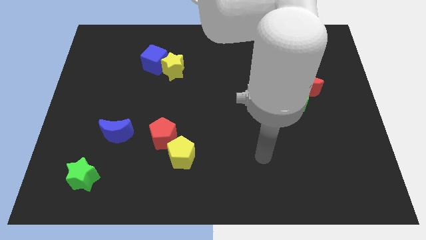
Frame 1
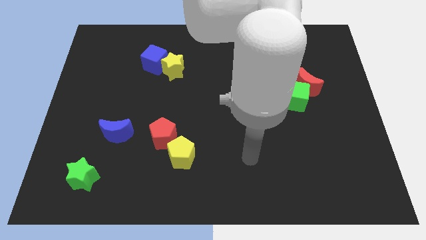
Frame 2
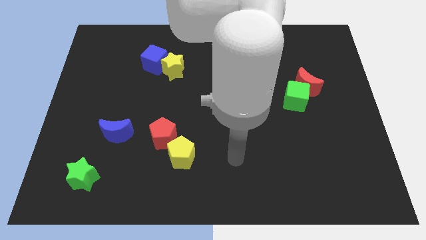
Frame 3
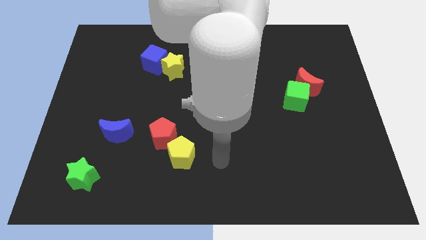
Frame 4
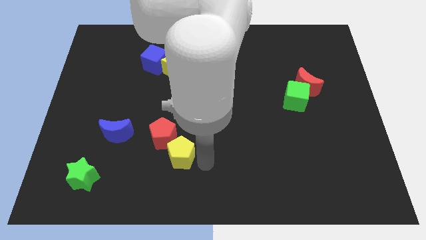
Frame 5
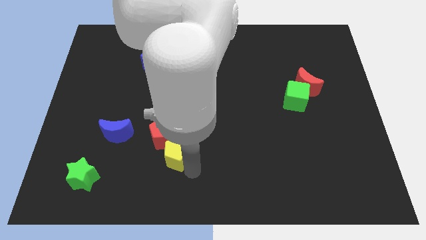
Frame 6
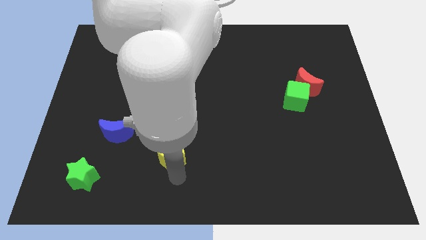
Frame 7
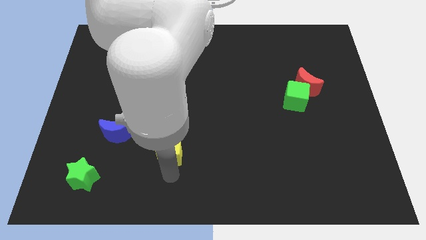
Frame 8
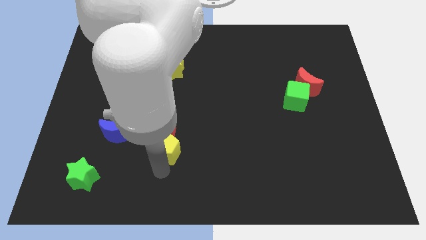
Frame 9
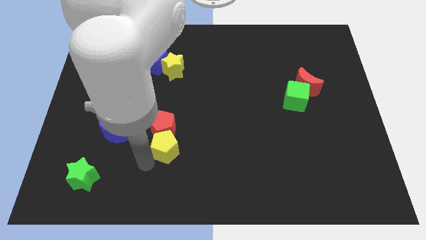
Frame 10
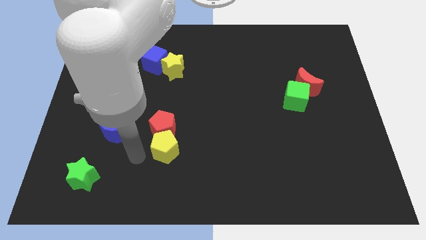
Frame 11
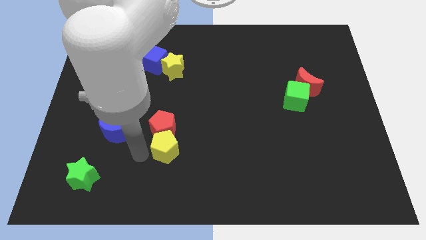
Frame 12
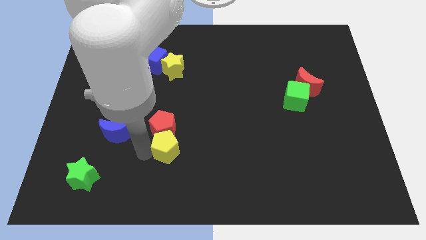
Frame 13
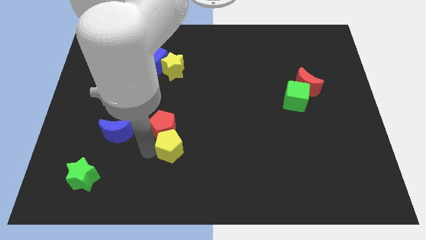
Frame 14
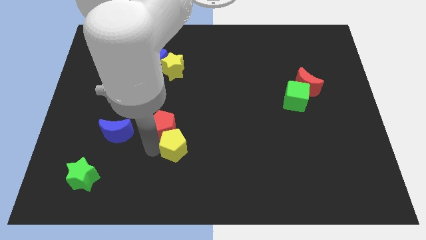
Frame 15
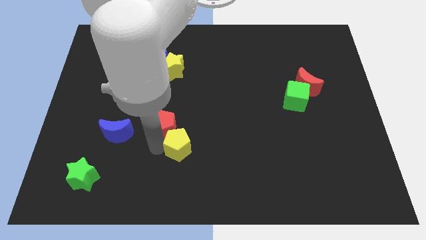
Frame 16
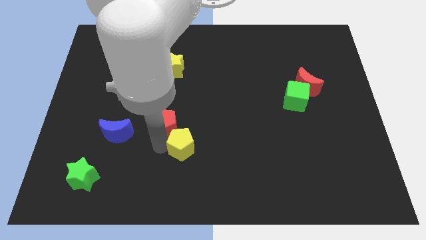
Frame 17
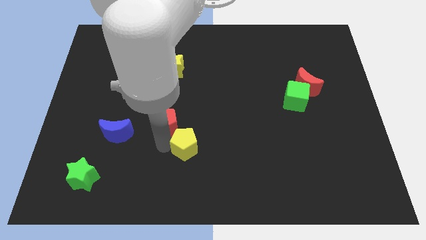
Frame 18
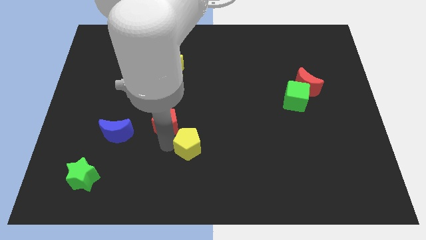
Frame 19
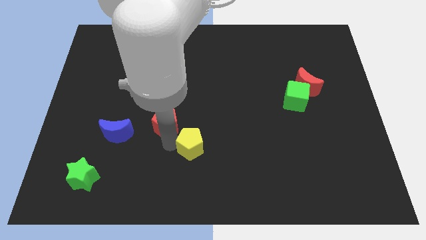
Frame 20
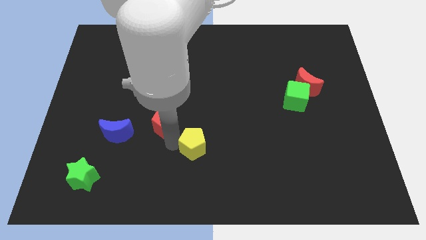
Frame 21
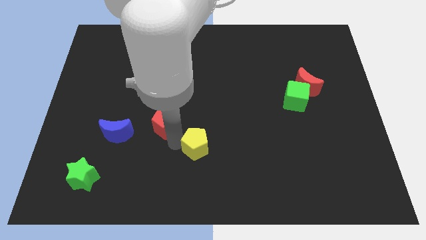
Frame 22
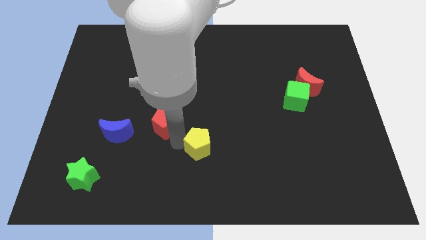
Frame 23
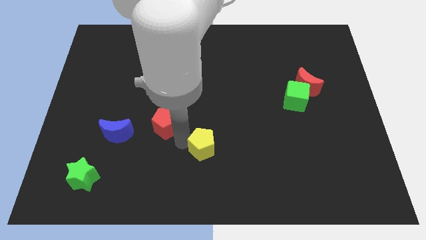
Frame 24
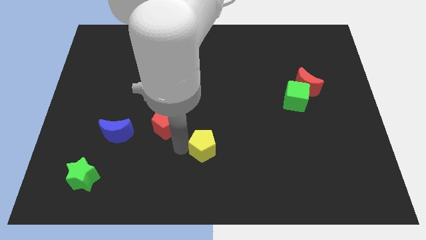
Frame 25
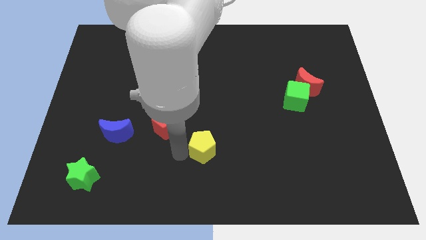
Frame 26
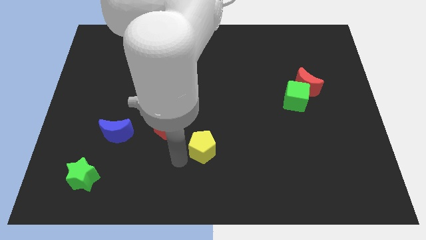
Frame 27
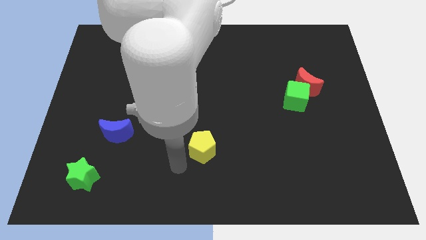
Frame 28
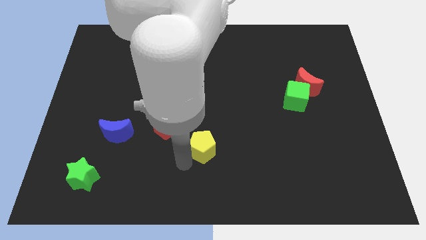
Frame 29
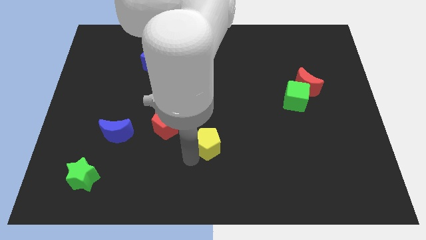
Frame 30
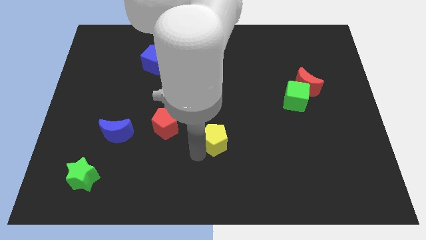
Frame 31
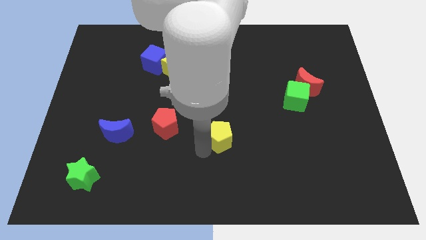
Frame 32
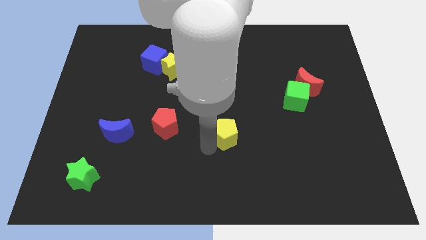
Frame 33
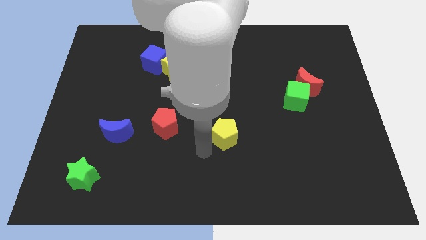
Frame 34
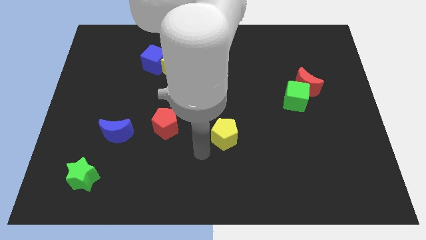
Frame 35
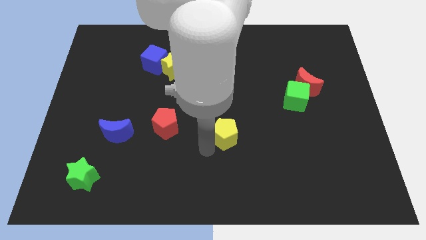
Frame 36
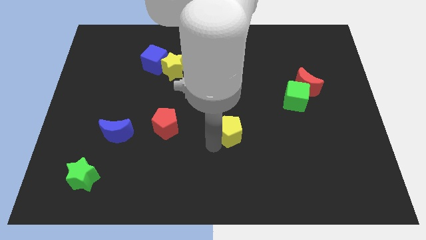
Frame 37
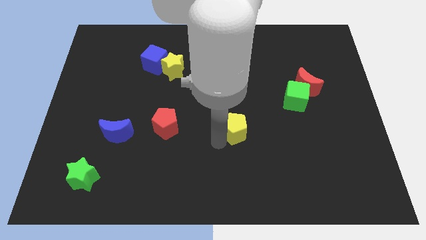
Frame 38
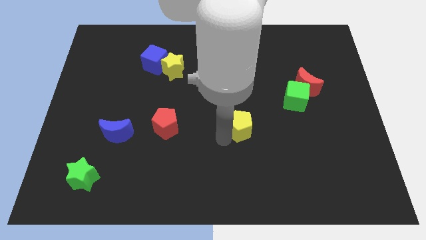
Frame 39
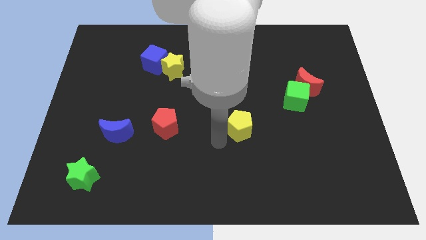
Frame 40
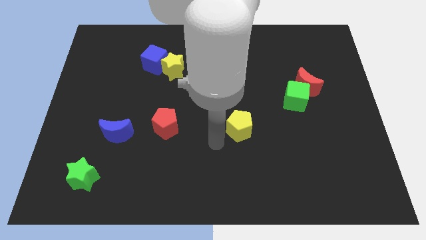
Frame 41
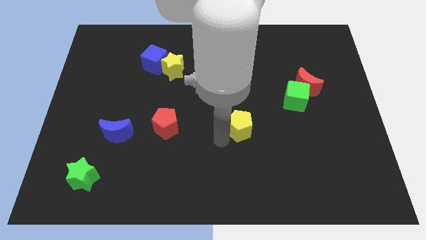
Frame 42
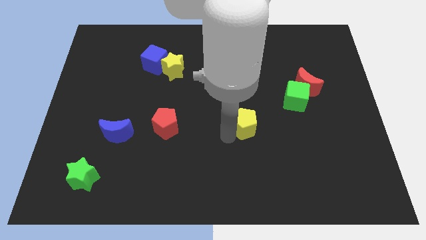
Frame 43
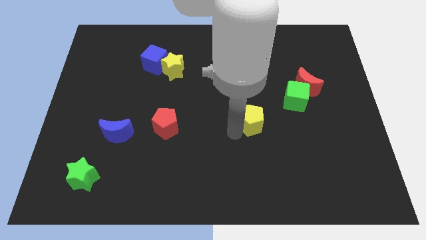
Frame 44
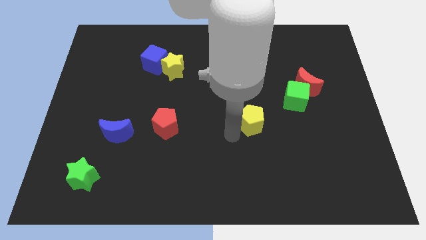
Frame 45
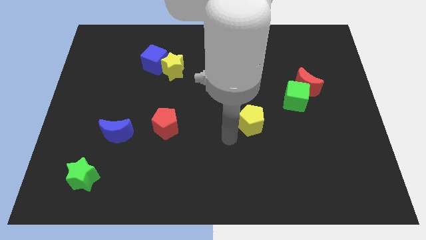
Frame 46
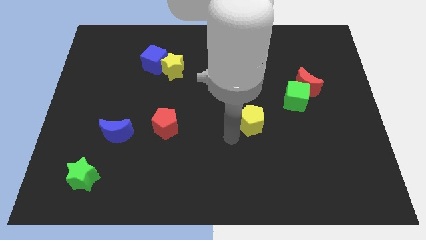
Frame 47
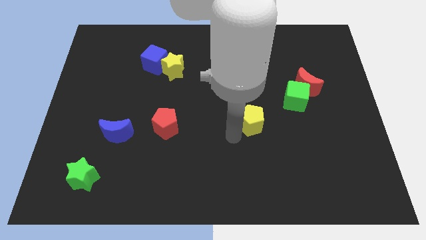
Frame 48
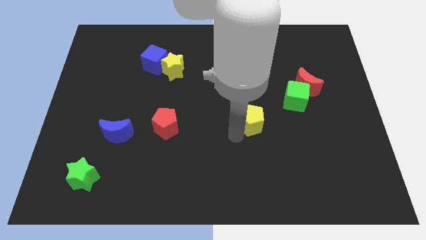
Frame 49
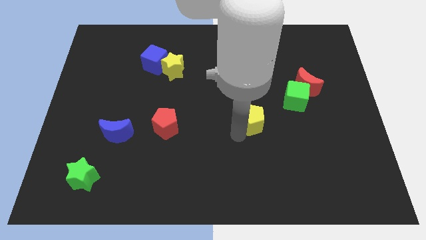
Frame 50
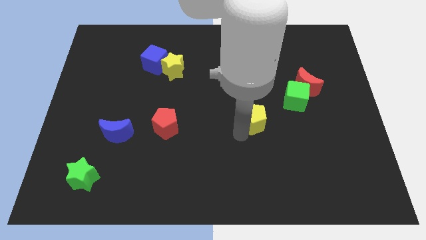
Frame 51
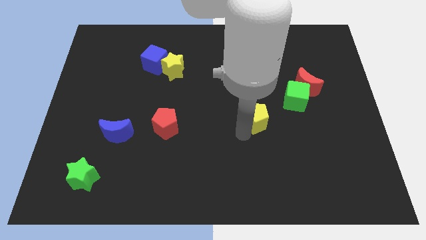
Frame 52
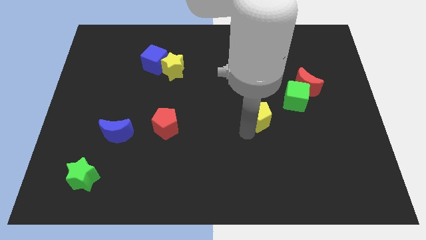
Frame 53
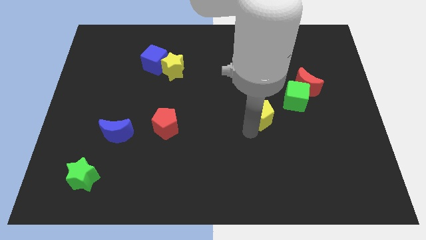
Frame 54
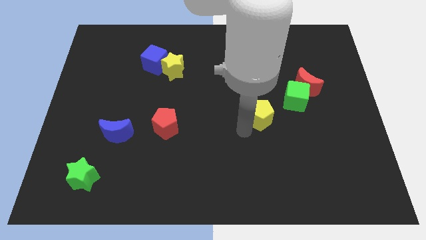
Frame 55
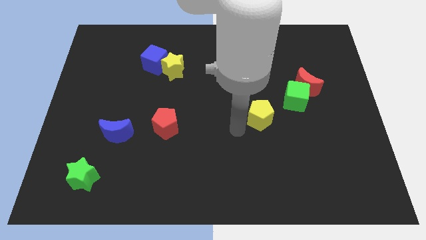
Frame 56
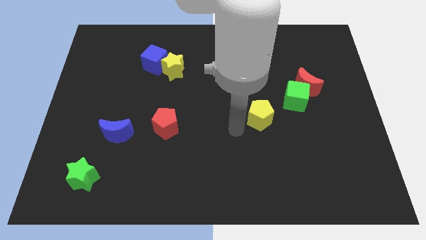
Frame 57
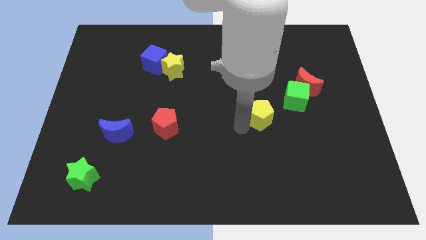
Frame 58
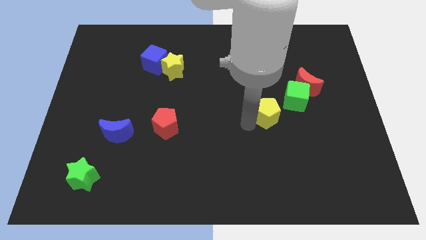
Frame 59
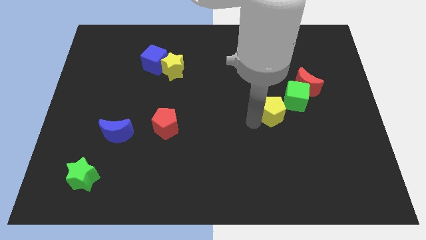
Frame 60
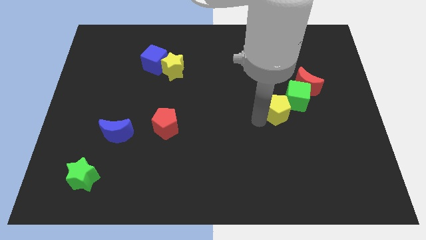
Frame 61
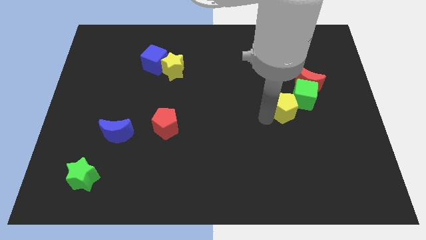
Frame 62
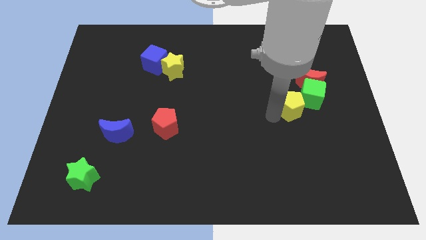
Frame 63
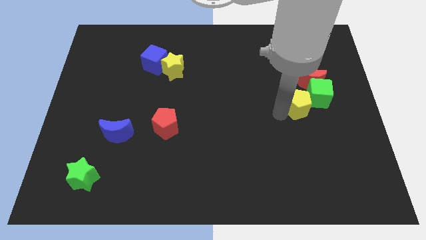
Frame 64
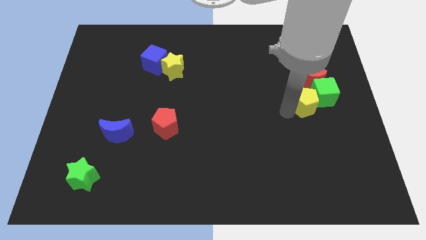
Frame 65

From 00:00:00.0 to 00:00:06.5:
push the yellow pentagon next to the green cube

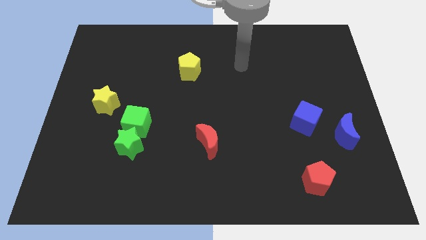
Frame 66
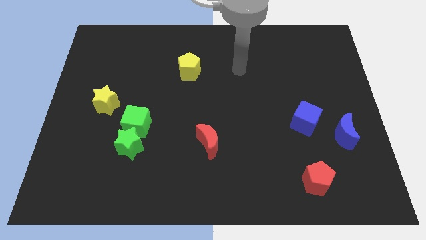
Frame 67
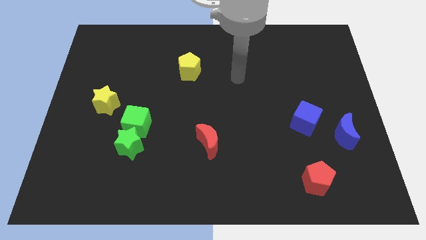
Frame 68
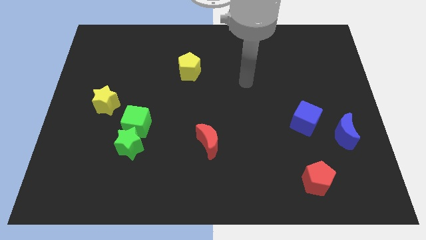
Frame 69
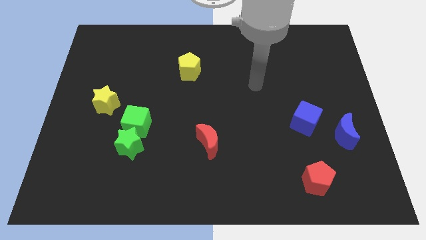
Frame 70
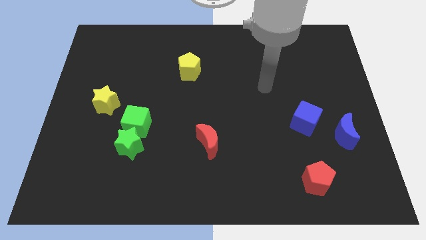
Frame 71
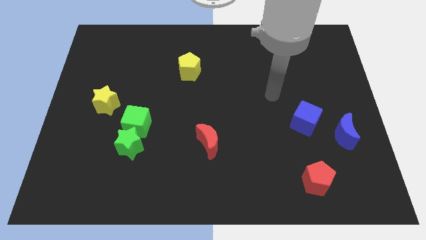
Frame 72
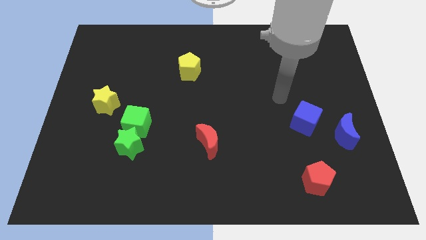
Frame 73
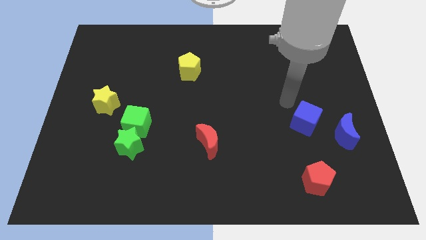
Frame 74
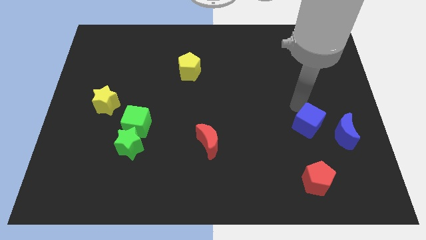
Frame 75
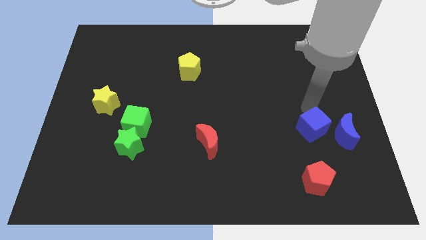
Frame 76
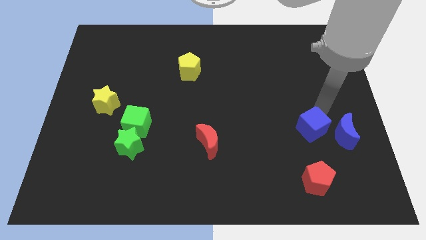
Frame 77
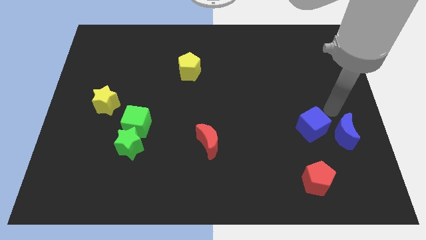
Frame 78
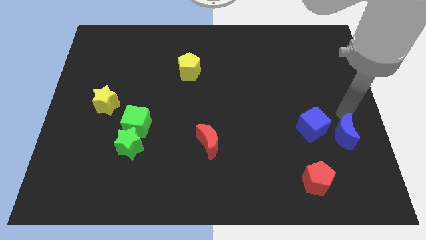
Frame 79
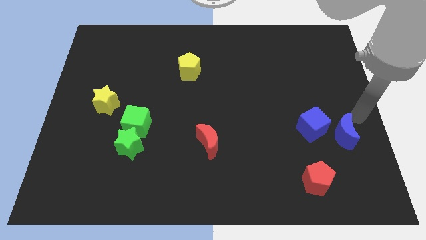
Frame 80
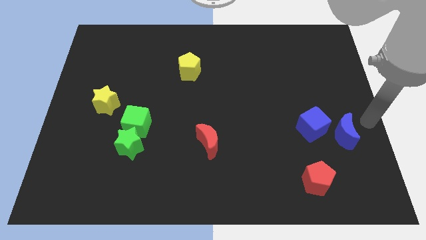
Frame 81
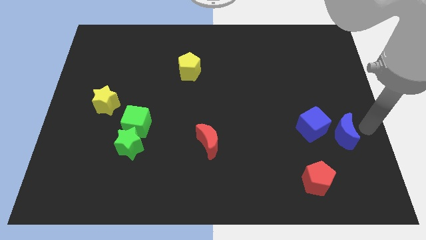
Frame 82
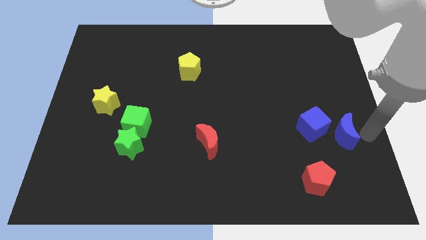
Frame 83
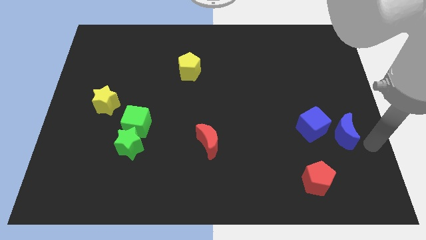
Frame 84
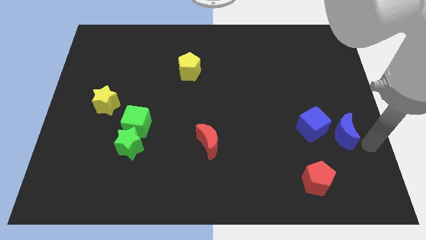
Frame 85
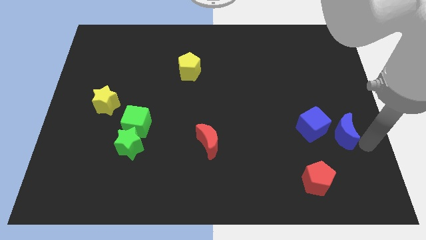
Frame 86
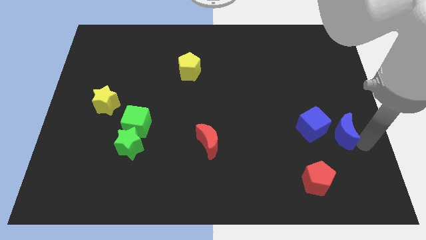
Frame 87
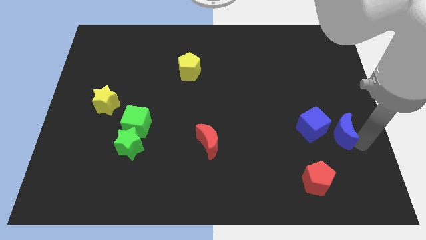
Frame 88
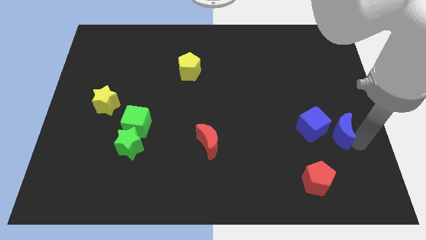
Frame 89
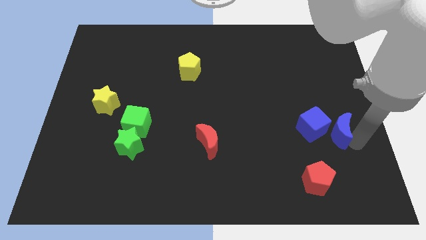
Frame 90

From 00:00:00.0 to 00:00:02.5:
slide the blue moon to the blue cube
